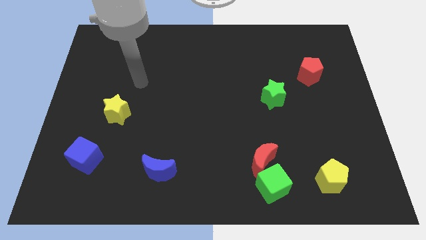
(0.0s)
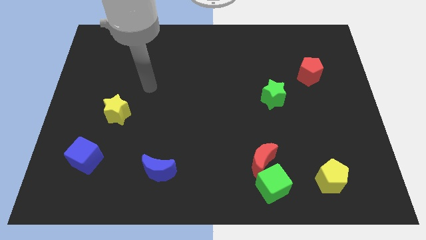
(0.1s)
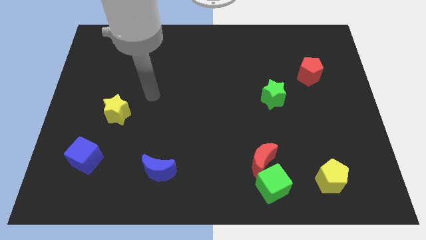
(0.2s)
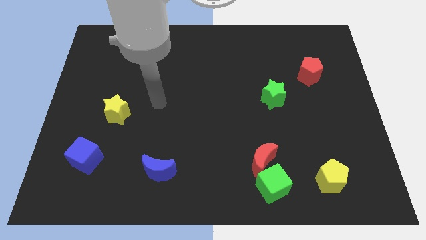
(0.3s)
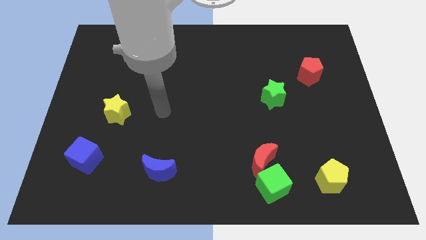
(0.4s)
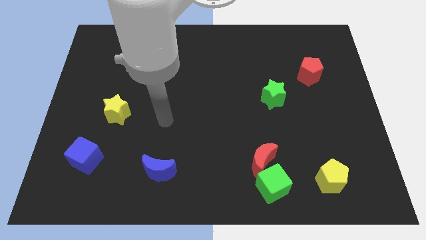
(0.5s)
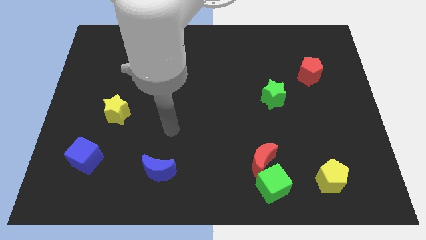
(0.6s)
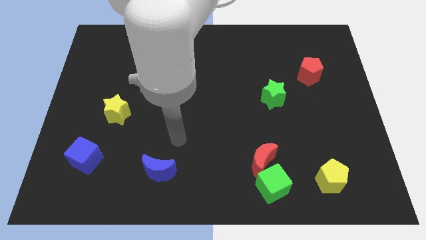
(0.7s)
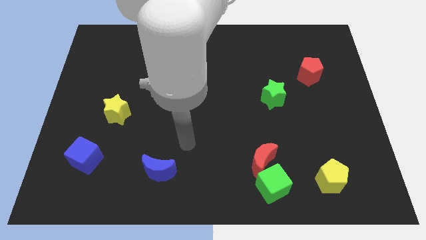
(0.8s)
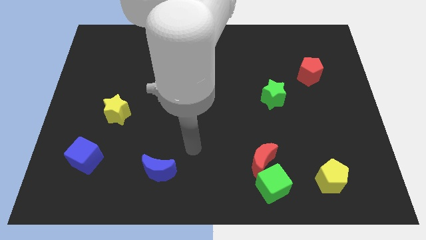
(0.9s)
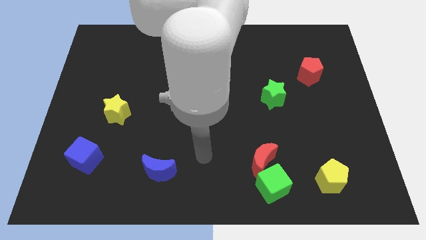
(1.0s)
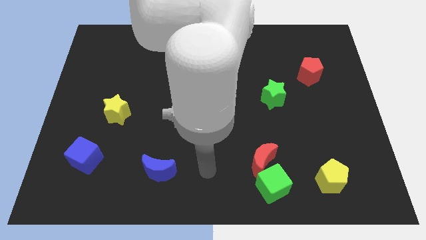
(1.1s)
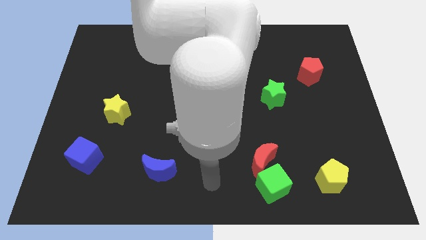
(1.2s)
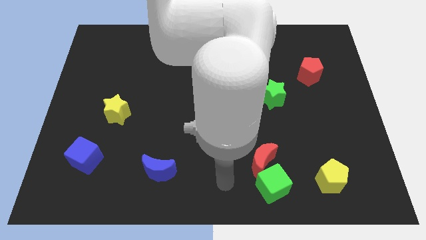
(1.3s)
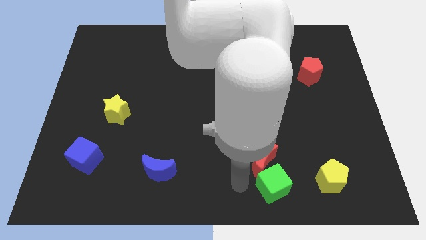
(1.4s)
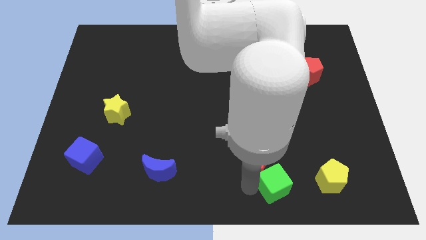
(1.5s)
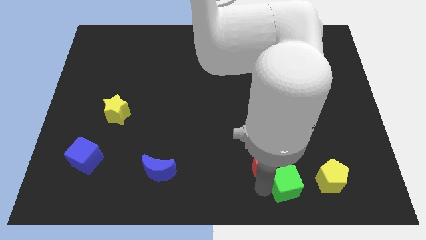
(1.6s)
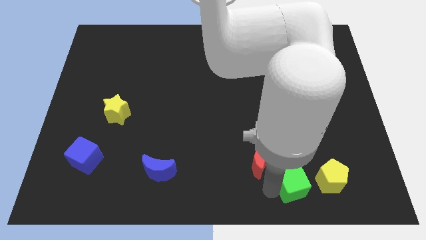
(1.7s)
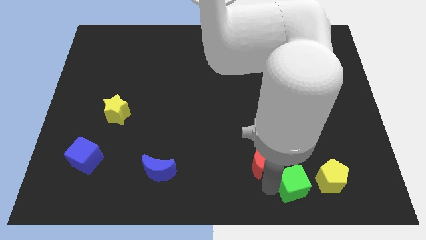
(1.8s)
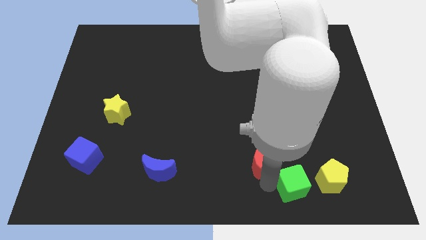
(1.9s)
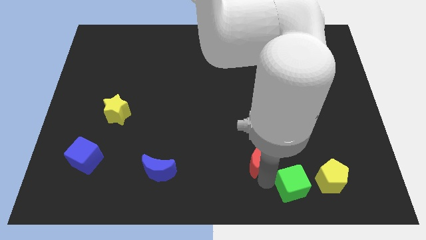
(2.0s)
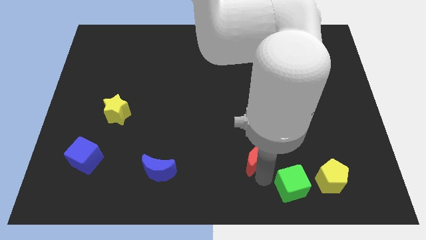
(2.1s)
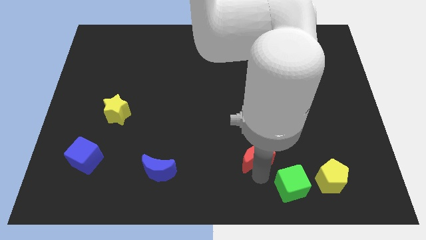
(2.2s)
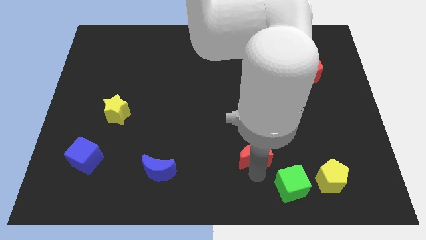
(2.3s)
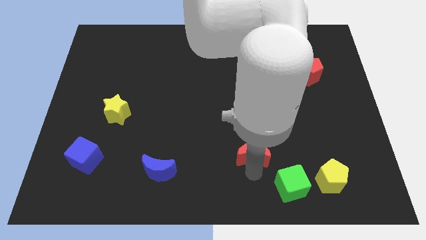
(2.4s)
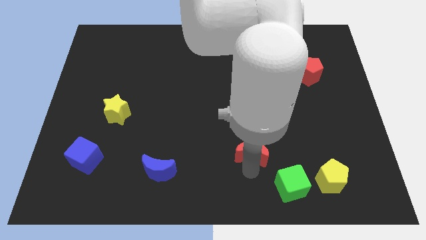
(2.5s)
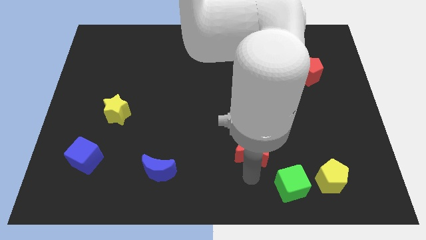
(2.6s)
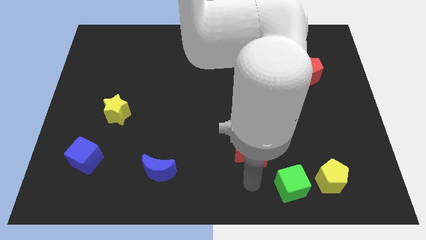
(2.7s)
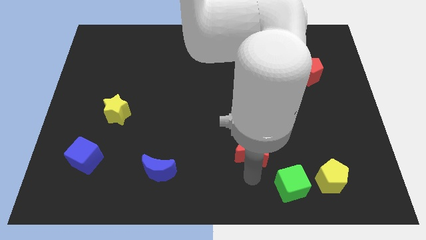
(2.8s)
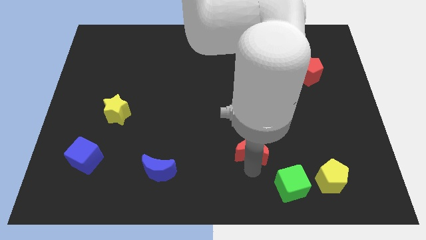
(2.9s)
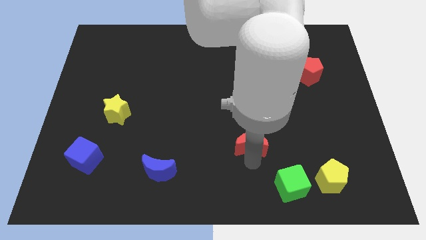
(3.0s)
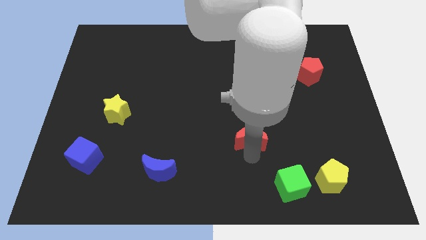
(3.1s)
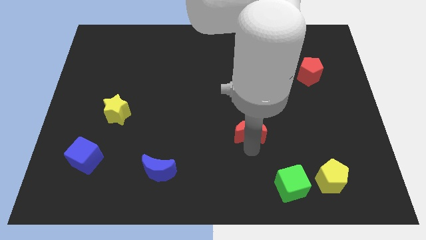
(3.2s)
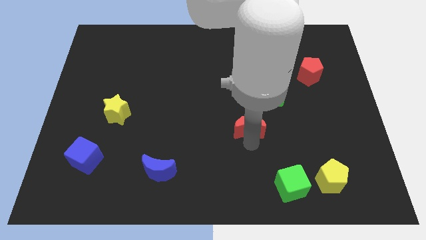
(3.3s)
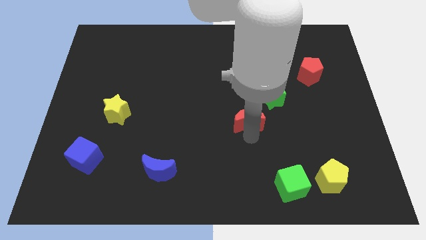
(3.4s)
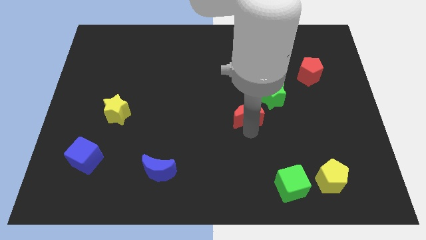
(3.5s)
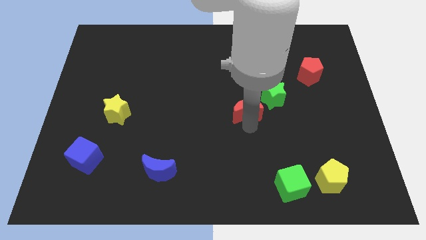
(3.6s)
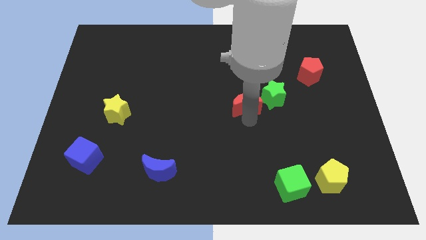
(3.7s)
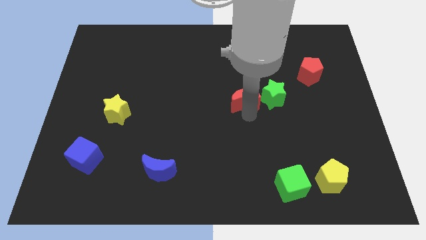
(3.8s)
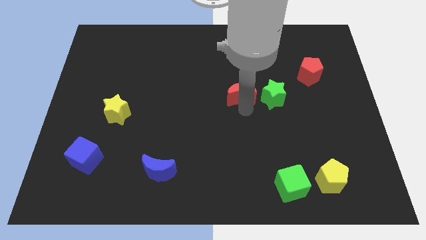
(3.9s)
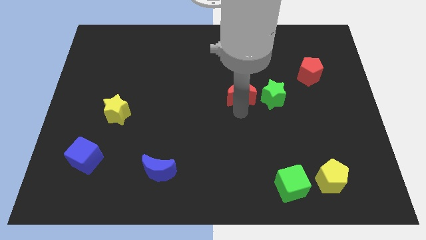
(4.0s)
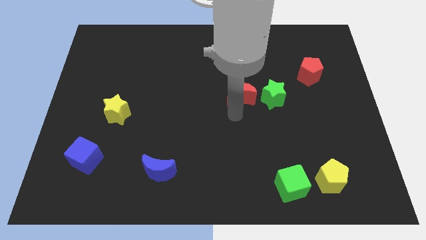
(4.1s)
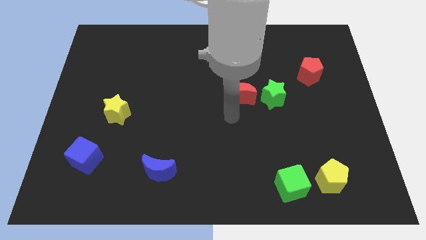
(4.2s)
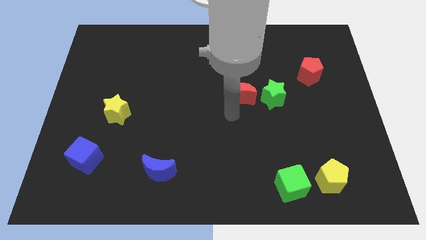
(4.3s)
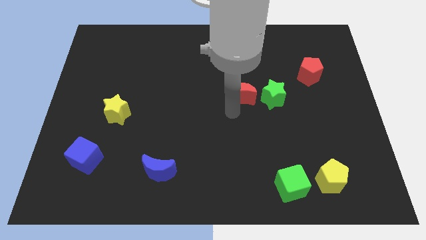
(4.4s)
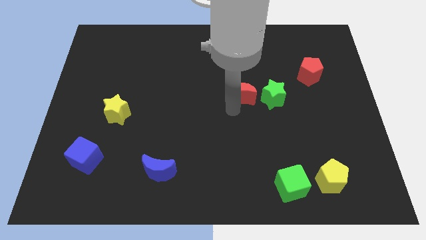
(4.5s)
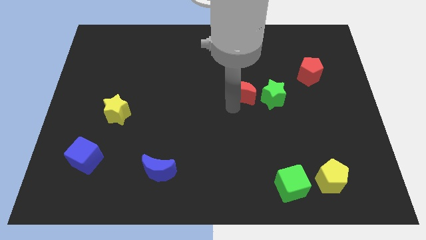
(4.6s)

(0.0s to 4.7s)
put the red moon diagonally up and to the left of the green star

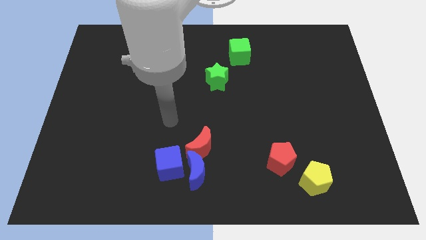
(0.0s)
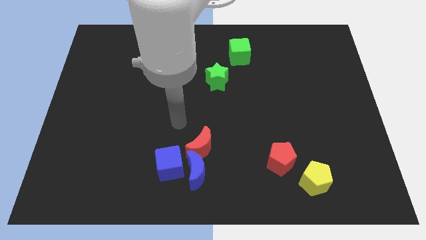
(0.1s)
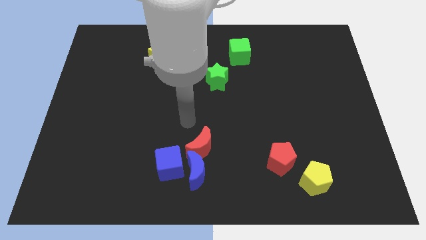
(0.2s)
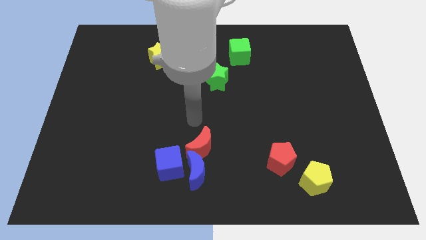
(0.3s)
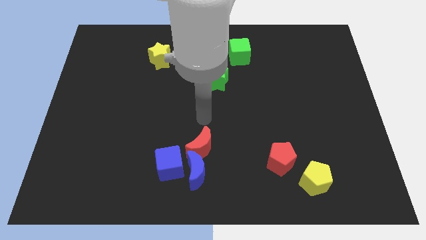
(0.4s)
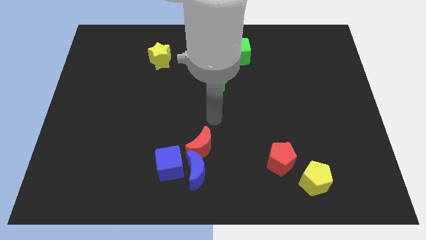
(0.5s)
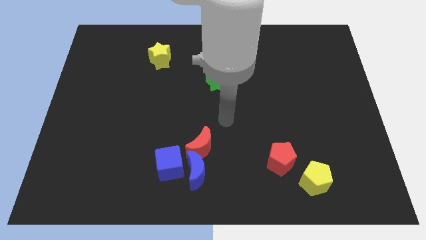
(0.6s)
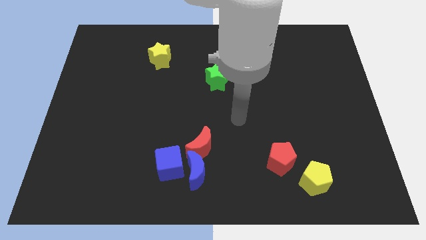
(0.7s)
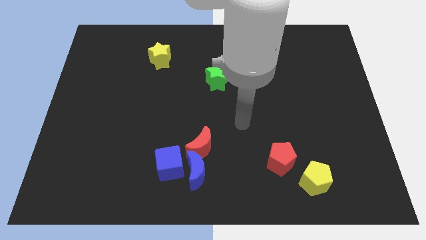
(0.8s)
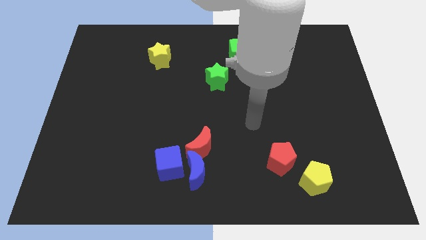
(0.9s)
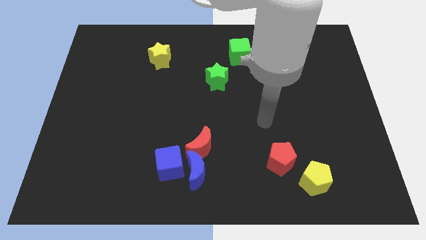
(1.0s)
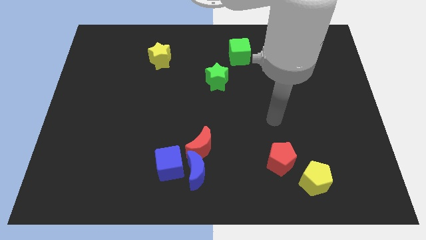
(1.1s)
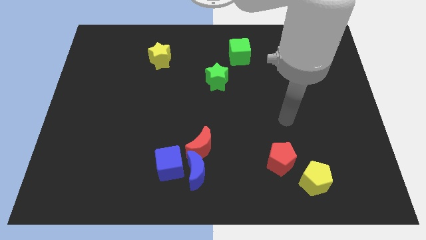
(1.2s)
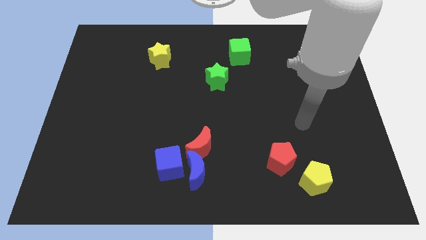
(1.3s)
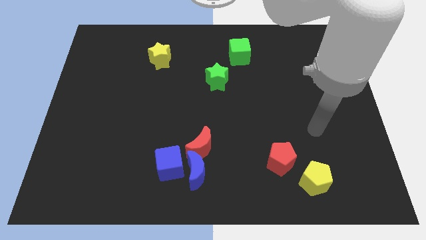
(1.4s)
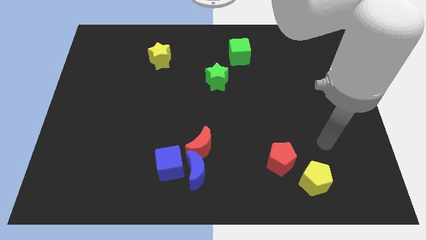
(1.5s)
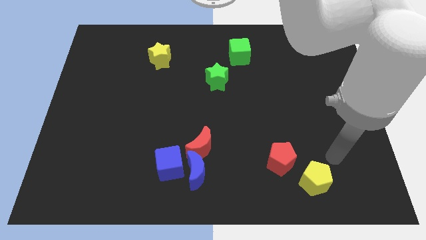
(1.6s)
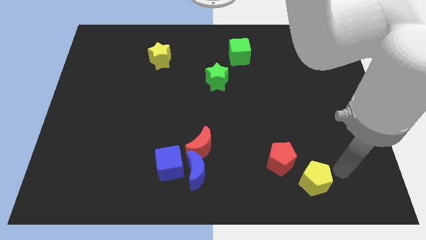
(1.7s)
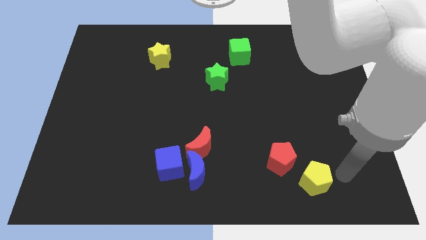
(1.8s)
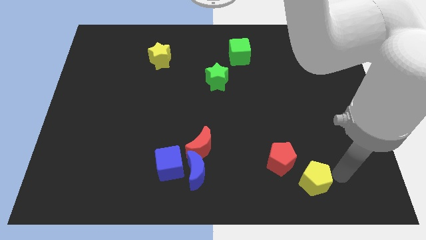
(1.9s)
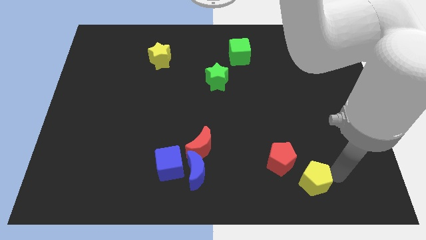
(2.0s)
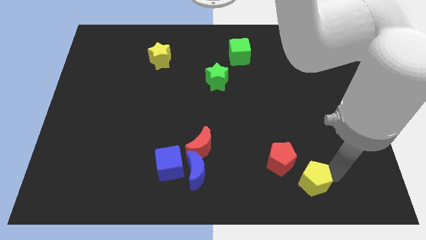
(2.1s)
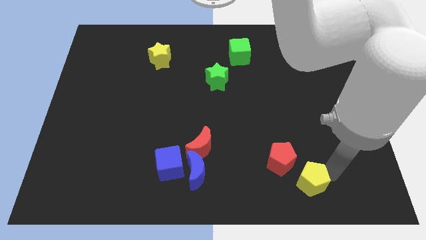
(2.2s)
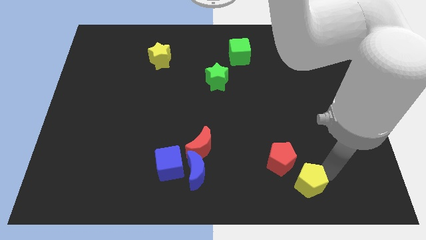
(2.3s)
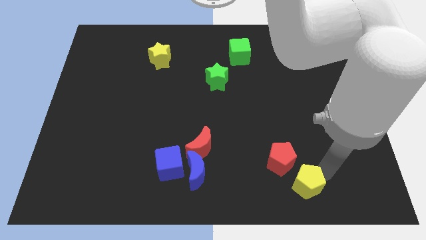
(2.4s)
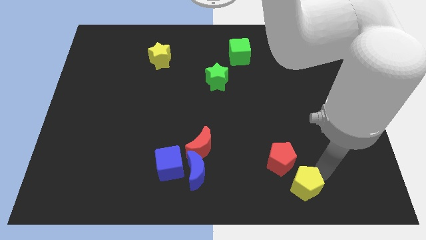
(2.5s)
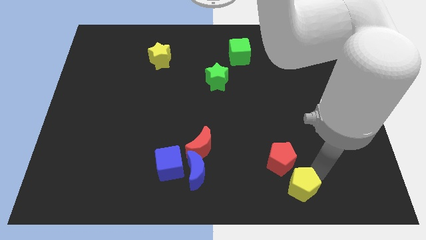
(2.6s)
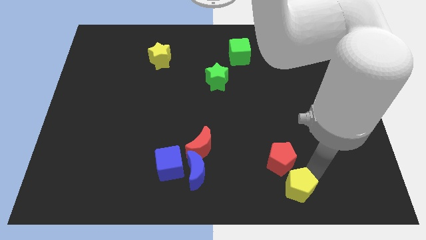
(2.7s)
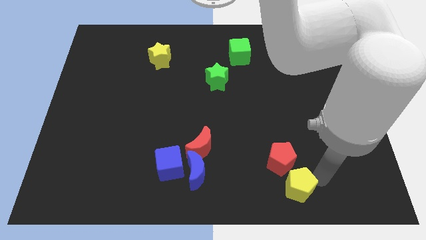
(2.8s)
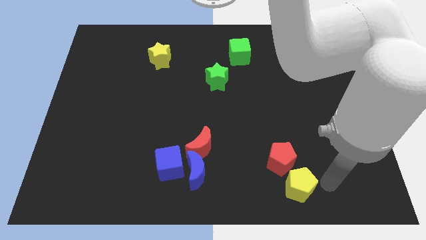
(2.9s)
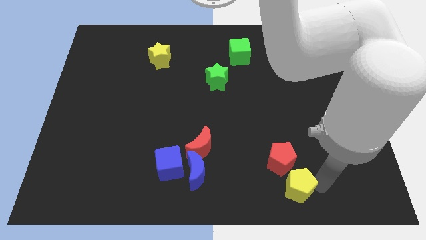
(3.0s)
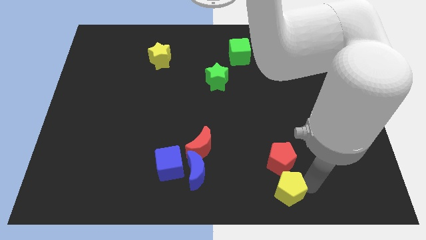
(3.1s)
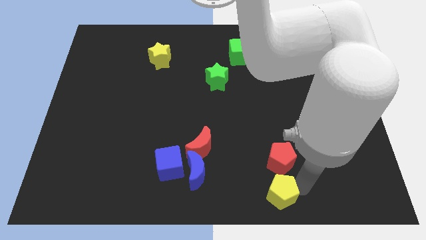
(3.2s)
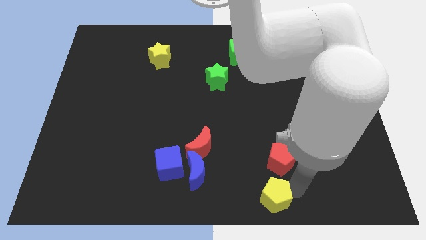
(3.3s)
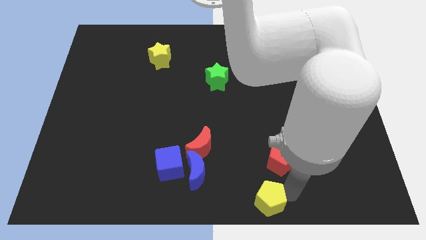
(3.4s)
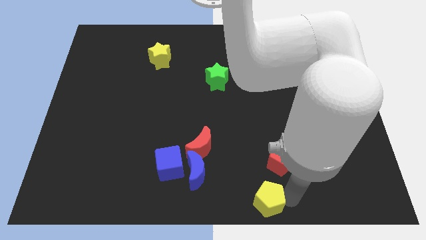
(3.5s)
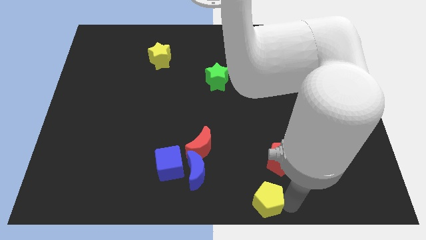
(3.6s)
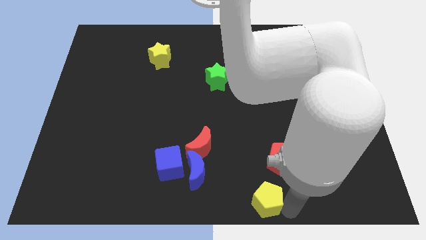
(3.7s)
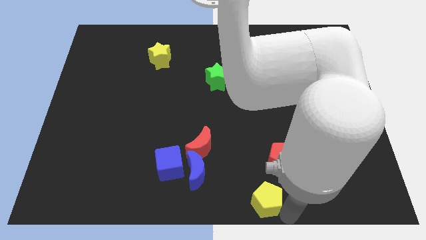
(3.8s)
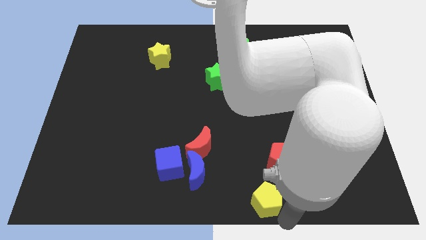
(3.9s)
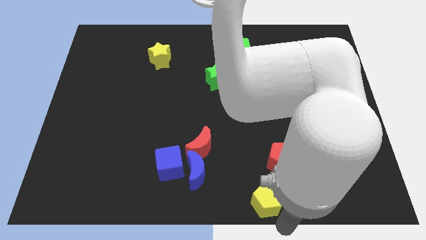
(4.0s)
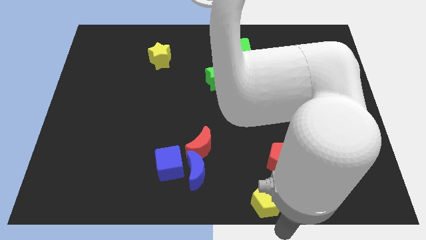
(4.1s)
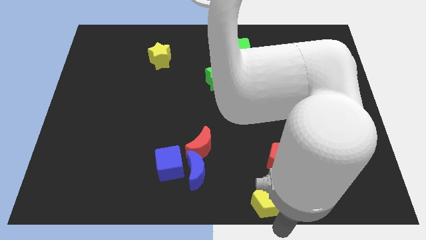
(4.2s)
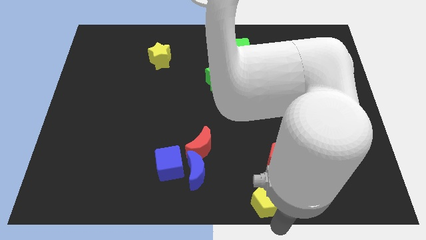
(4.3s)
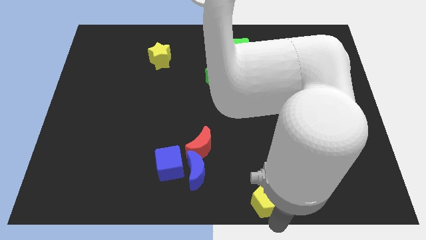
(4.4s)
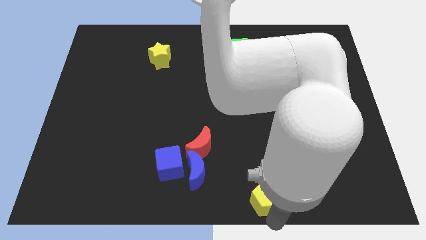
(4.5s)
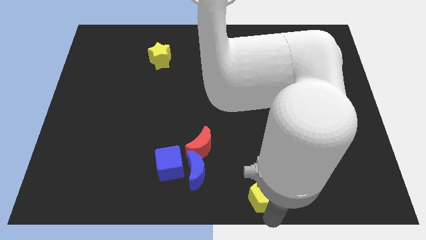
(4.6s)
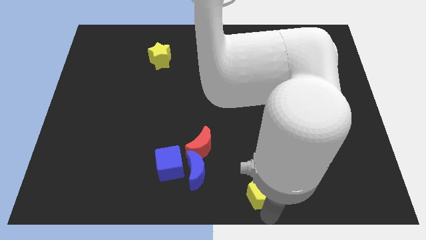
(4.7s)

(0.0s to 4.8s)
push the yellow pentagon to the right of the blue moon
